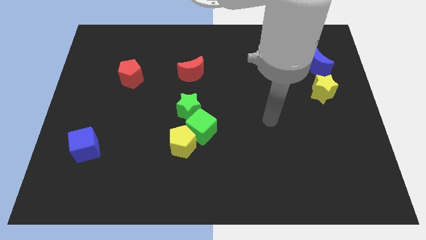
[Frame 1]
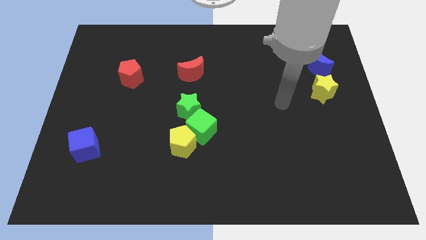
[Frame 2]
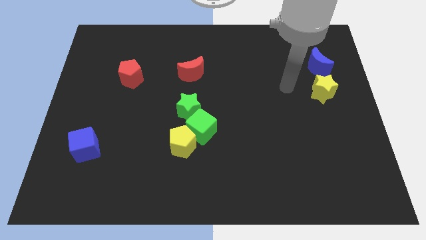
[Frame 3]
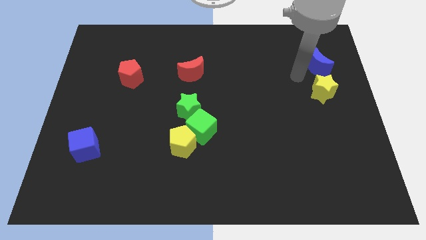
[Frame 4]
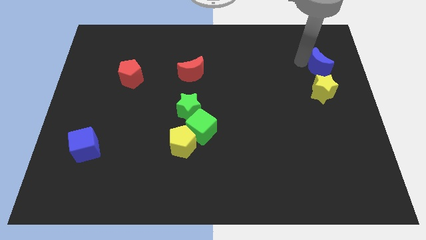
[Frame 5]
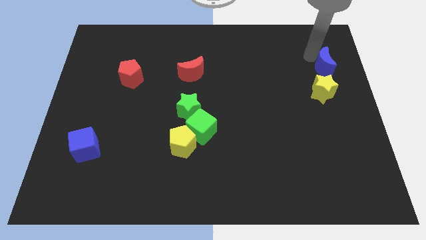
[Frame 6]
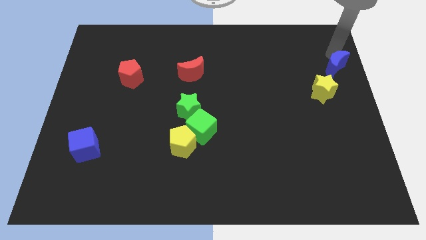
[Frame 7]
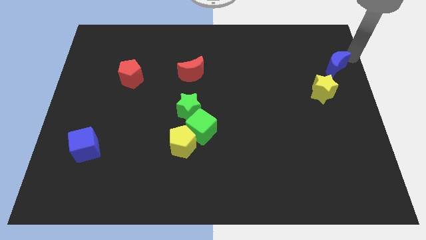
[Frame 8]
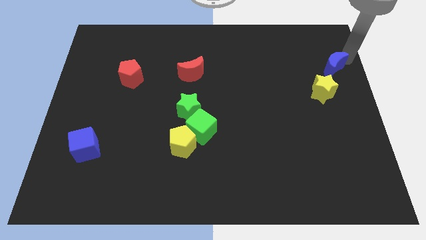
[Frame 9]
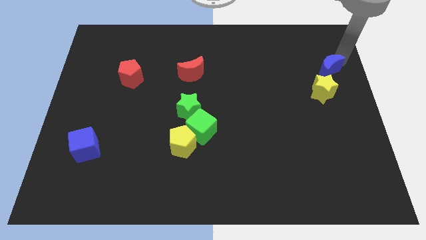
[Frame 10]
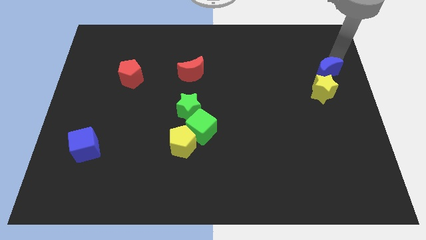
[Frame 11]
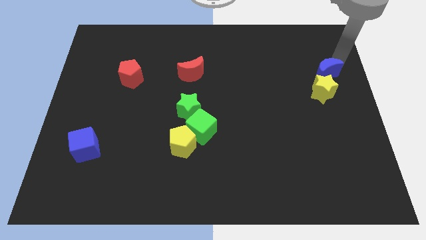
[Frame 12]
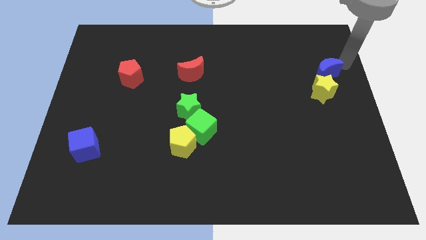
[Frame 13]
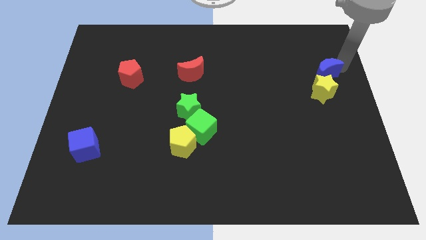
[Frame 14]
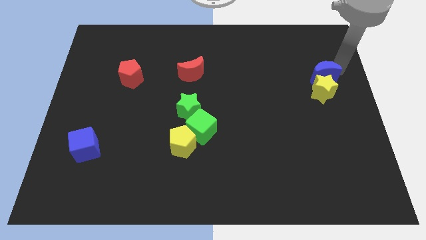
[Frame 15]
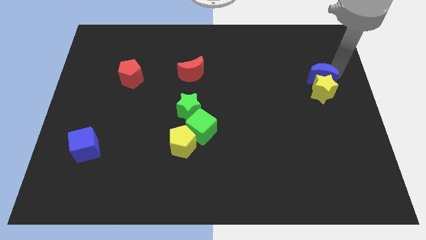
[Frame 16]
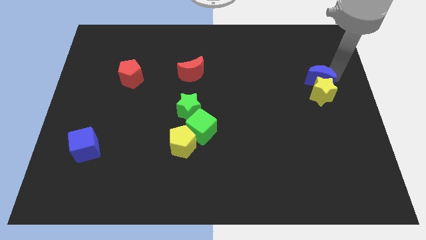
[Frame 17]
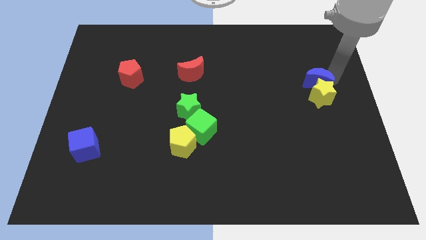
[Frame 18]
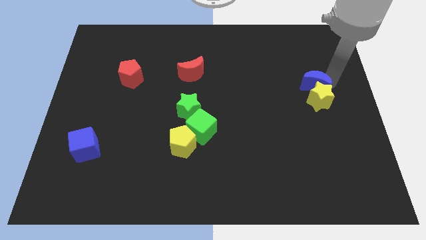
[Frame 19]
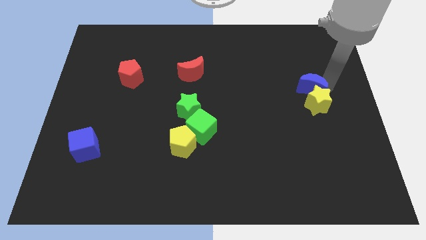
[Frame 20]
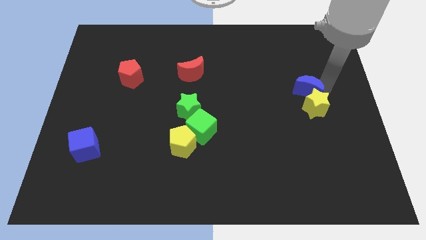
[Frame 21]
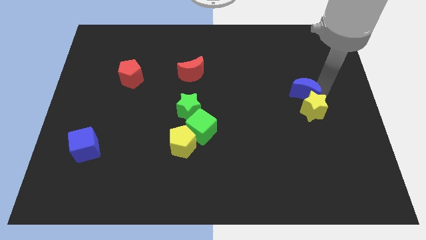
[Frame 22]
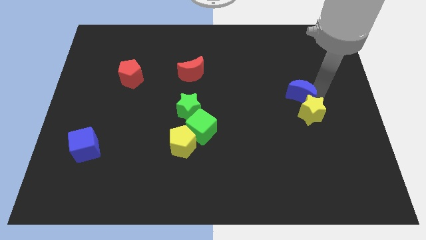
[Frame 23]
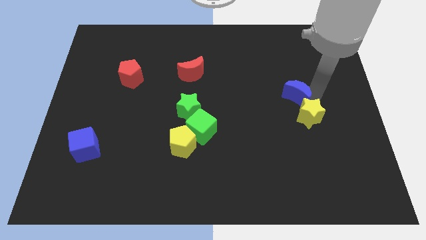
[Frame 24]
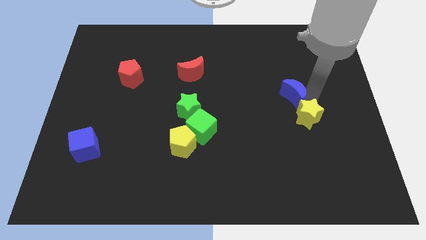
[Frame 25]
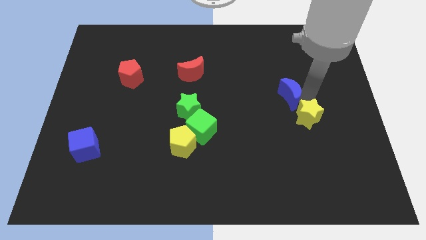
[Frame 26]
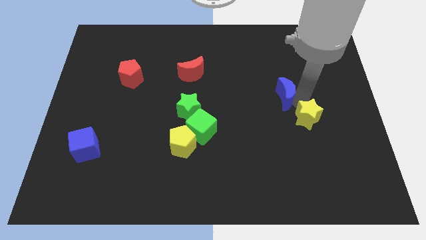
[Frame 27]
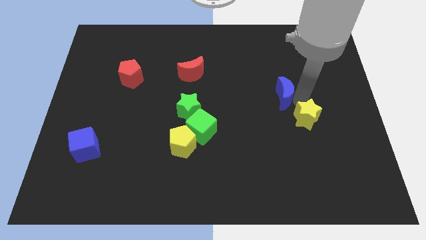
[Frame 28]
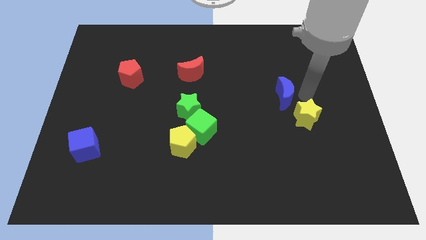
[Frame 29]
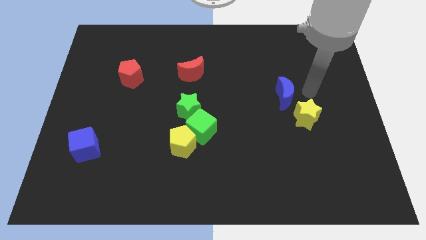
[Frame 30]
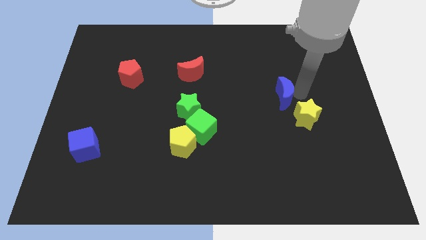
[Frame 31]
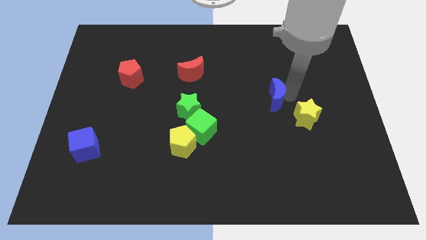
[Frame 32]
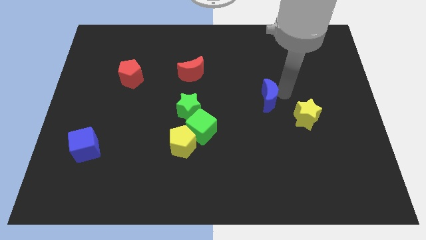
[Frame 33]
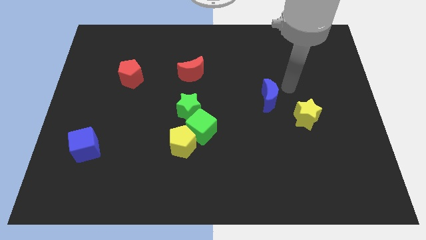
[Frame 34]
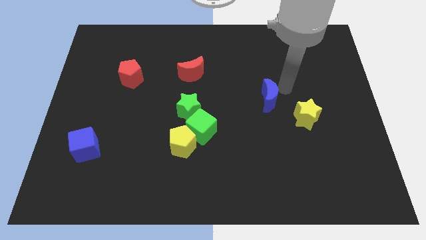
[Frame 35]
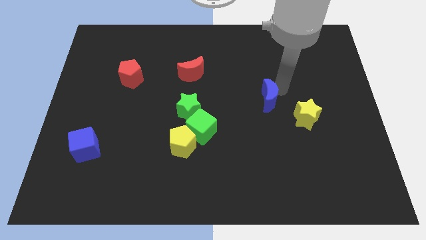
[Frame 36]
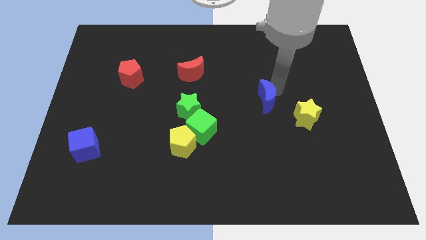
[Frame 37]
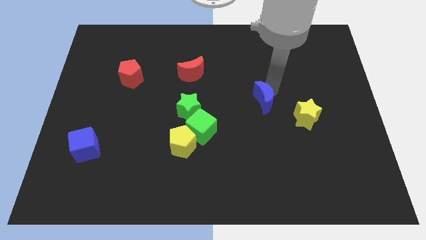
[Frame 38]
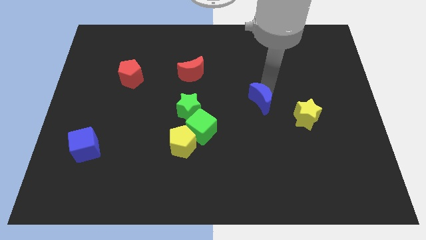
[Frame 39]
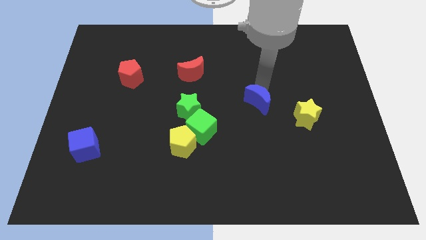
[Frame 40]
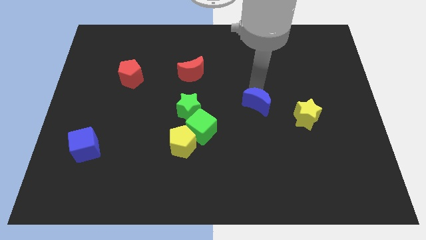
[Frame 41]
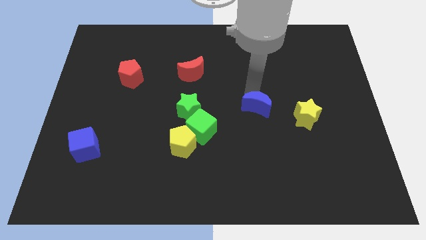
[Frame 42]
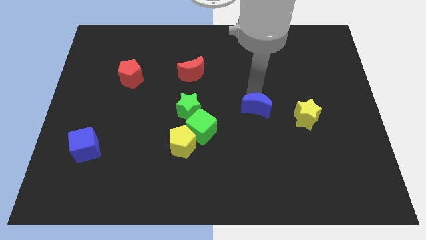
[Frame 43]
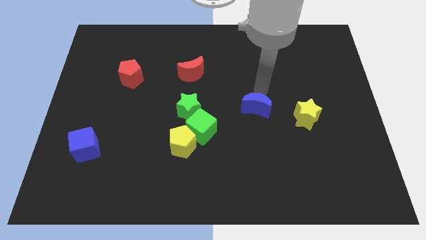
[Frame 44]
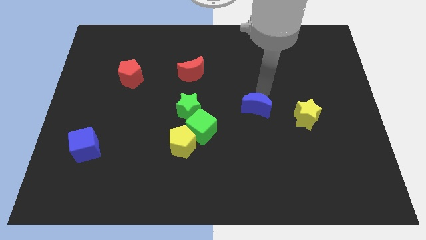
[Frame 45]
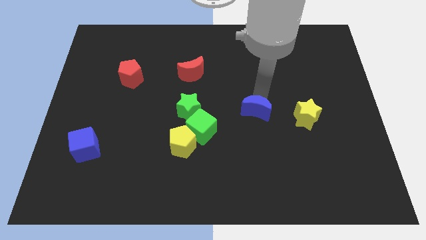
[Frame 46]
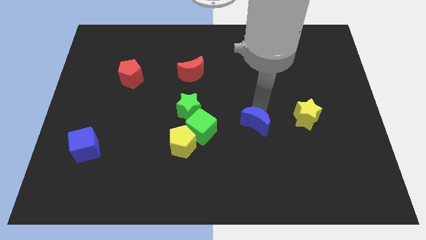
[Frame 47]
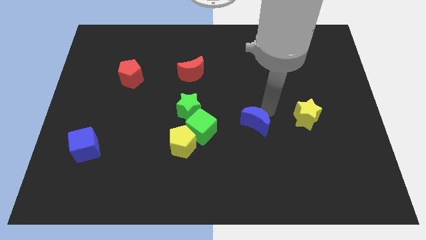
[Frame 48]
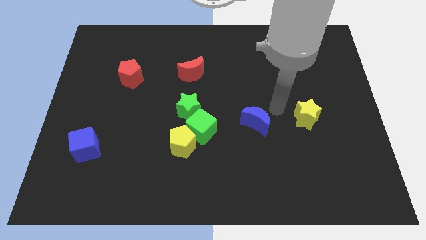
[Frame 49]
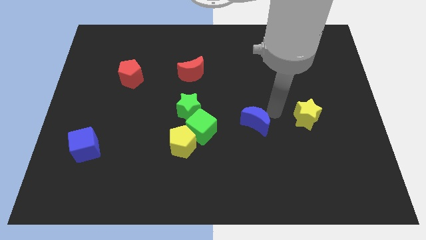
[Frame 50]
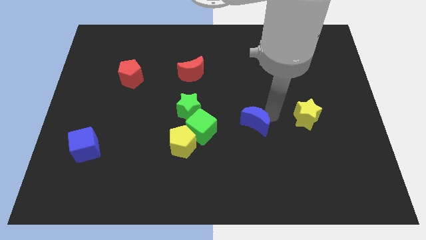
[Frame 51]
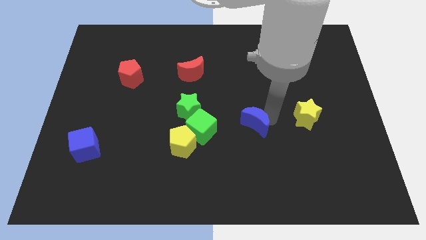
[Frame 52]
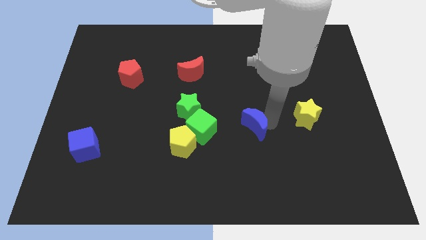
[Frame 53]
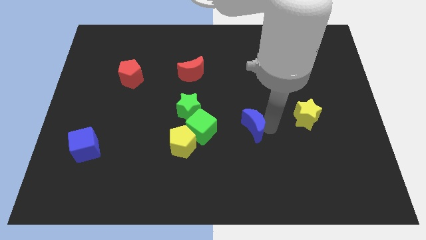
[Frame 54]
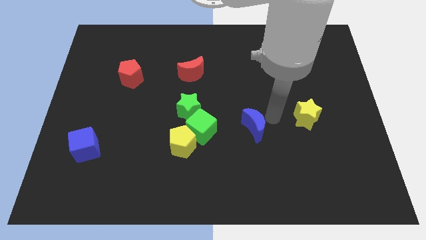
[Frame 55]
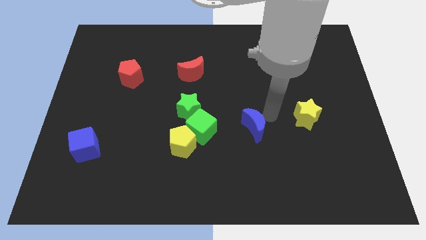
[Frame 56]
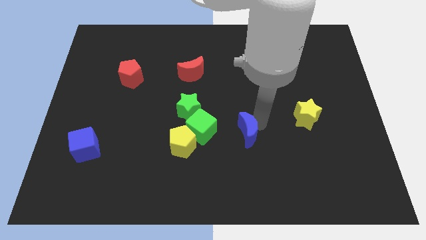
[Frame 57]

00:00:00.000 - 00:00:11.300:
slide the blue moon just right of the yellow pentagon

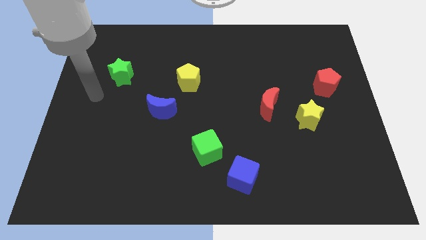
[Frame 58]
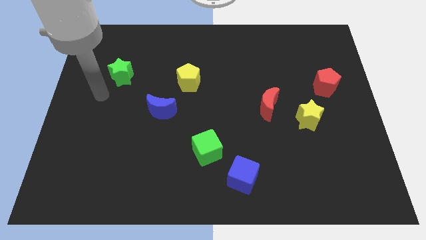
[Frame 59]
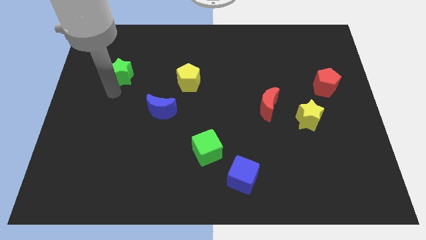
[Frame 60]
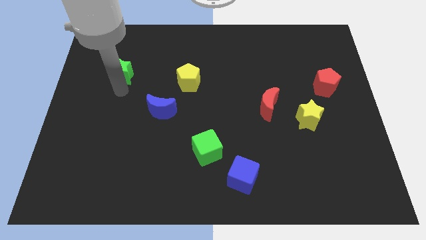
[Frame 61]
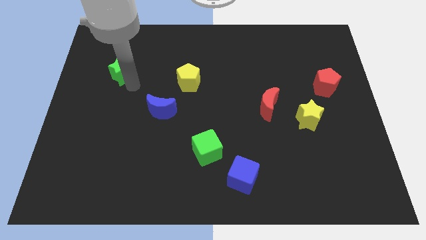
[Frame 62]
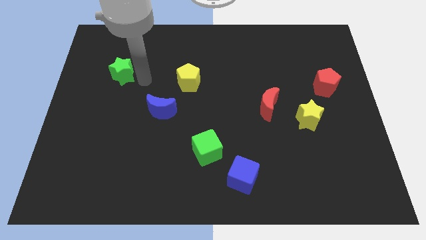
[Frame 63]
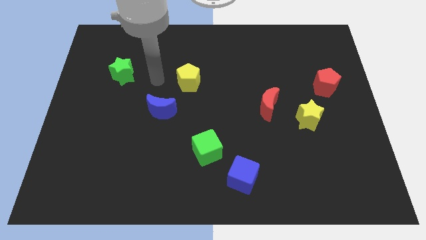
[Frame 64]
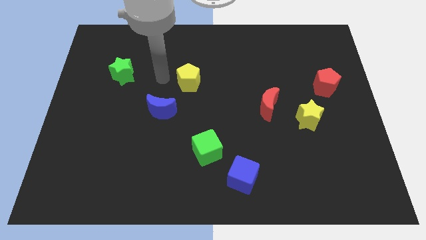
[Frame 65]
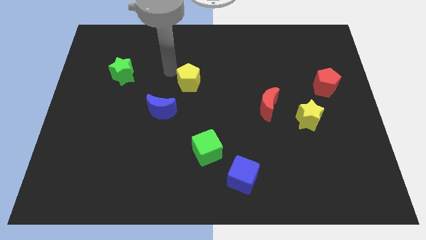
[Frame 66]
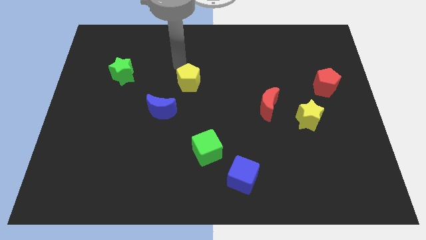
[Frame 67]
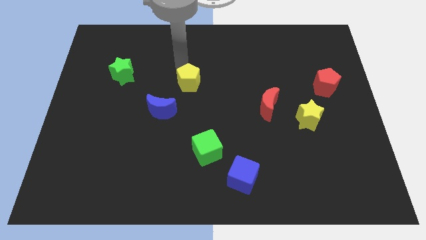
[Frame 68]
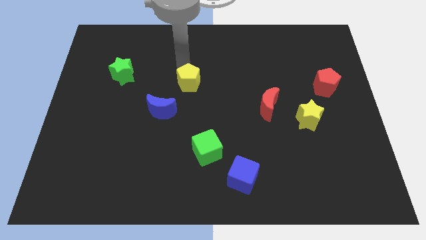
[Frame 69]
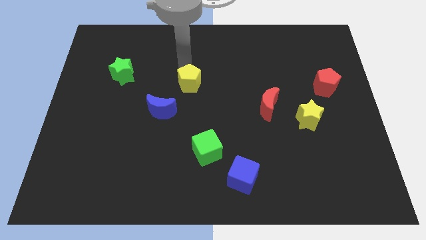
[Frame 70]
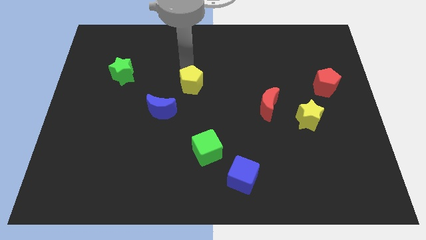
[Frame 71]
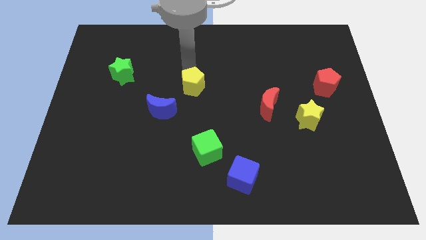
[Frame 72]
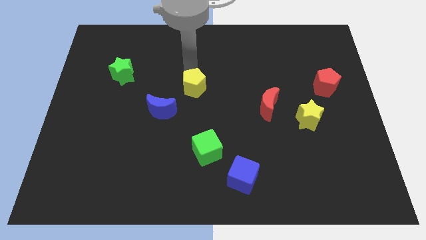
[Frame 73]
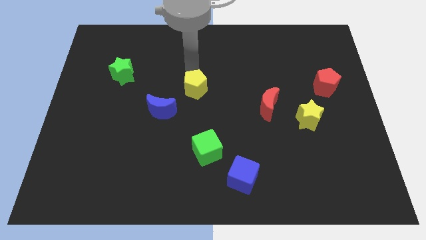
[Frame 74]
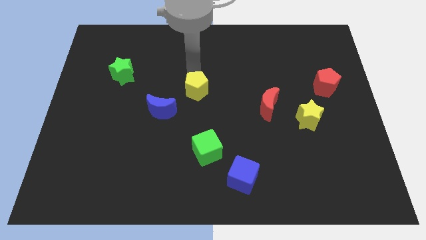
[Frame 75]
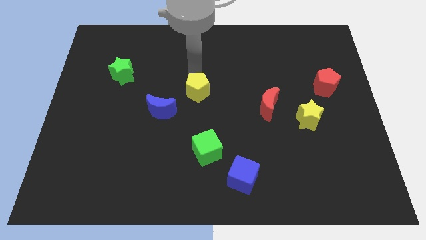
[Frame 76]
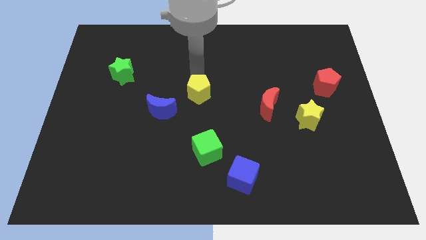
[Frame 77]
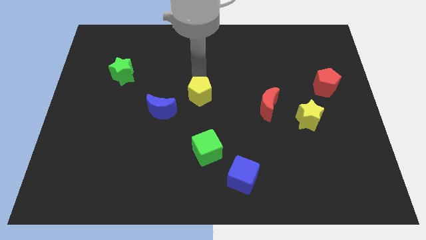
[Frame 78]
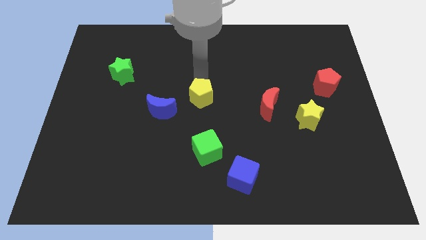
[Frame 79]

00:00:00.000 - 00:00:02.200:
push the yellow pentagon right of the blue moon

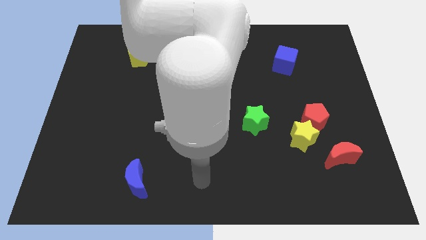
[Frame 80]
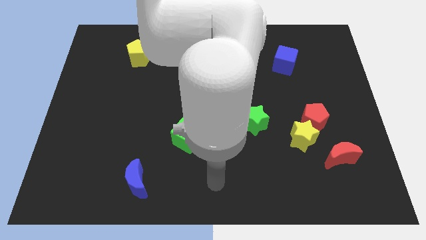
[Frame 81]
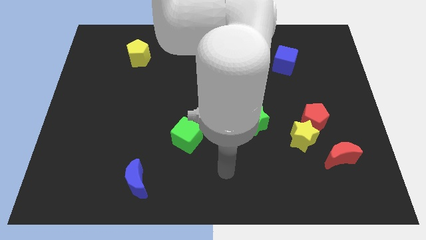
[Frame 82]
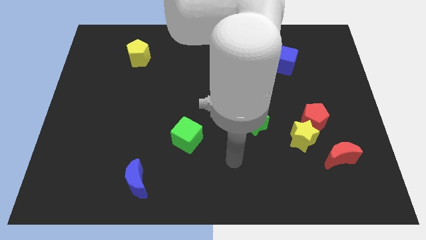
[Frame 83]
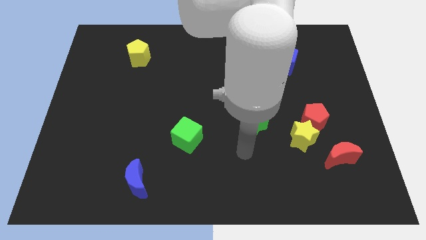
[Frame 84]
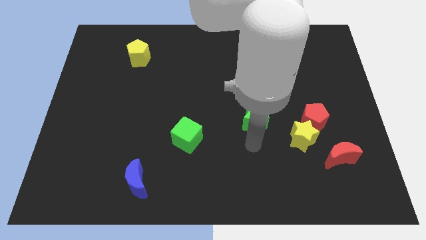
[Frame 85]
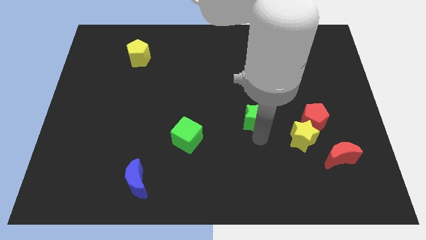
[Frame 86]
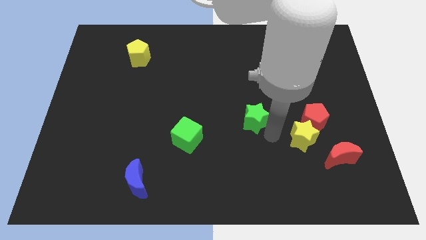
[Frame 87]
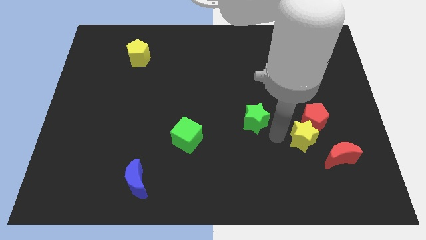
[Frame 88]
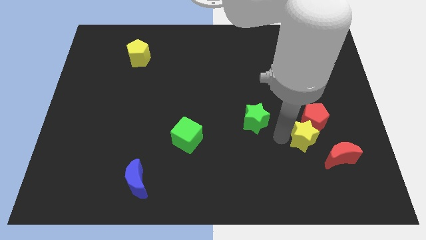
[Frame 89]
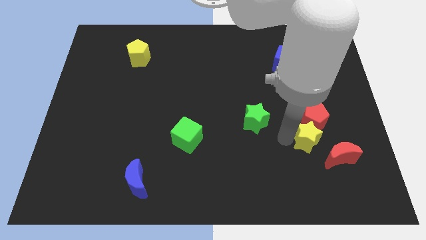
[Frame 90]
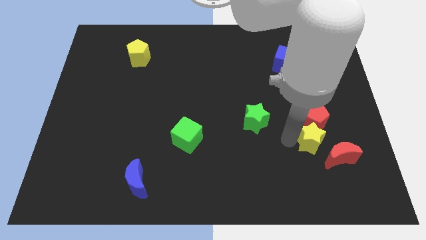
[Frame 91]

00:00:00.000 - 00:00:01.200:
push the yellow star diagonally down and to the right of the red pentagon
